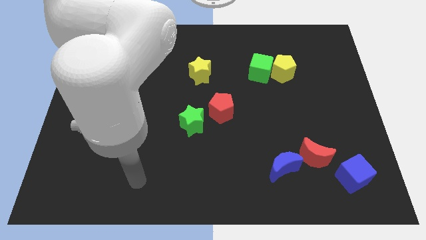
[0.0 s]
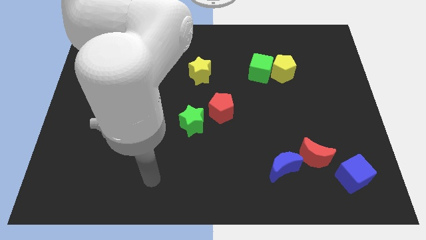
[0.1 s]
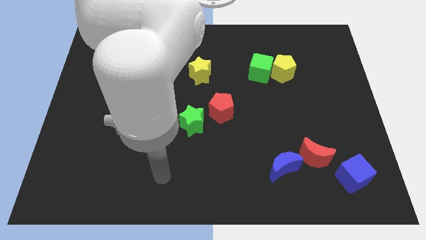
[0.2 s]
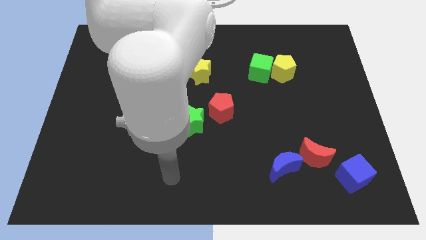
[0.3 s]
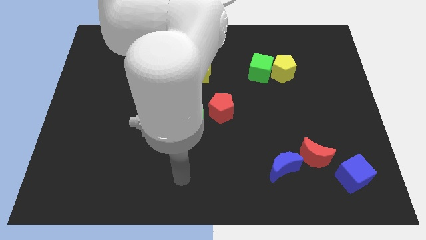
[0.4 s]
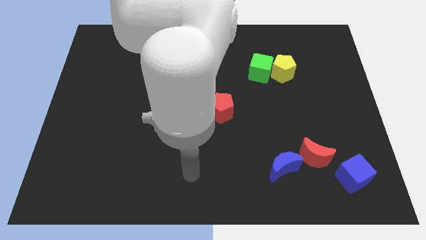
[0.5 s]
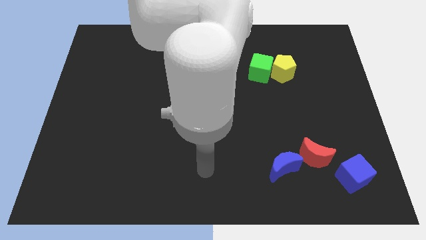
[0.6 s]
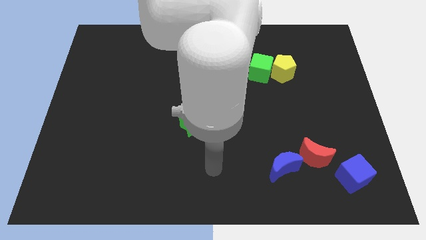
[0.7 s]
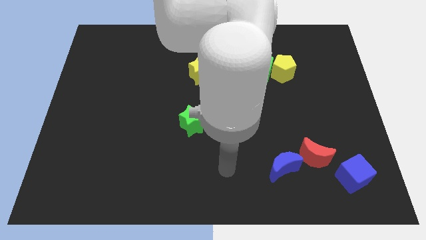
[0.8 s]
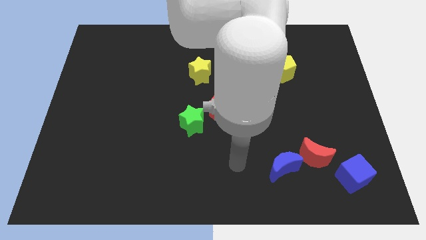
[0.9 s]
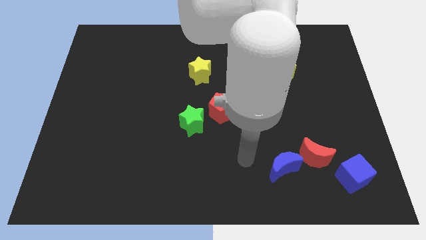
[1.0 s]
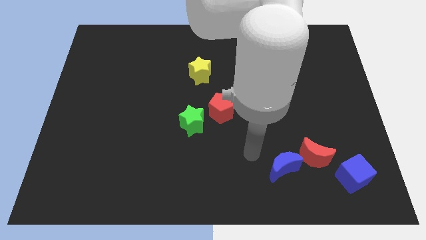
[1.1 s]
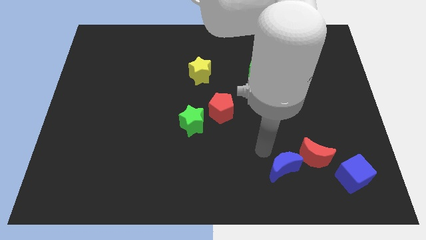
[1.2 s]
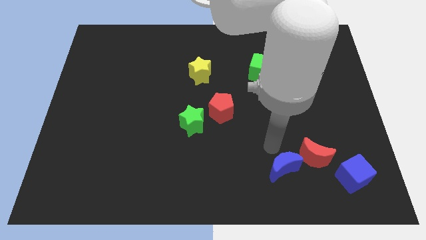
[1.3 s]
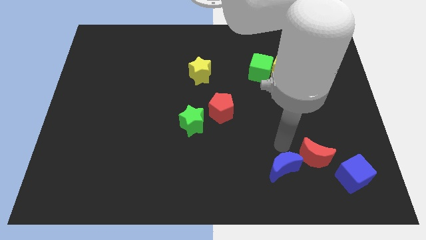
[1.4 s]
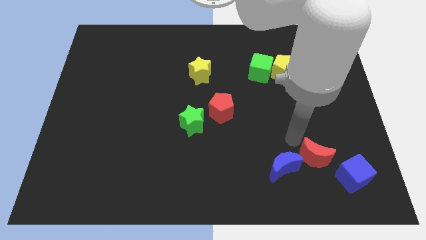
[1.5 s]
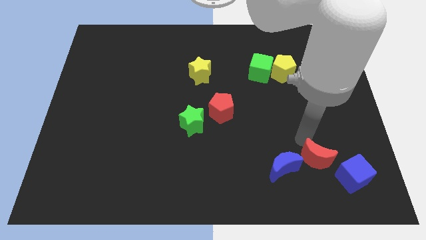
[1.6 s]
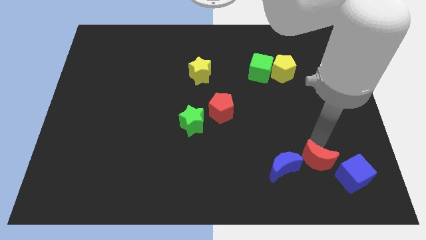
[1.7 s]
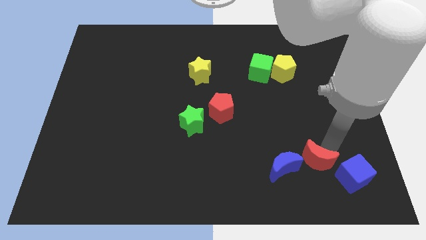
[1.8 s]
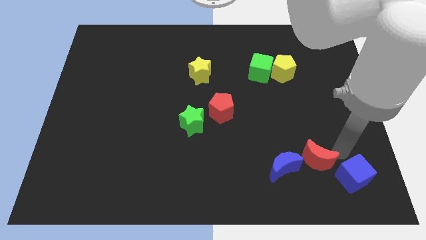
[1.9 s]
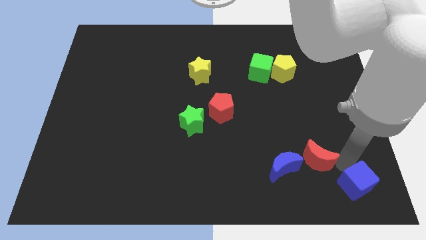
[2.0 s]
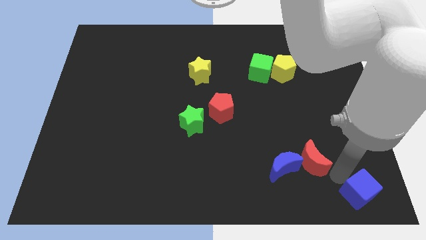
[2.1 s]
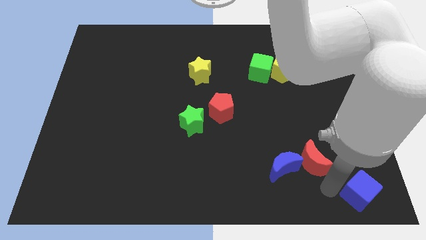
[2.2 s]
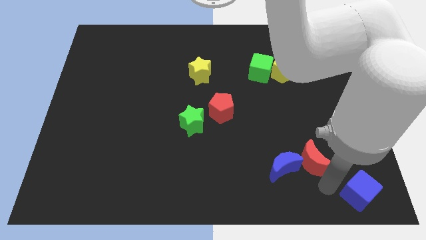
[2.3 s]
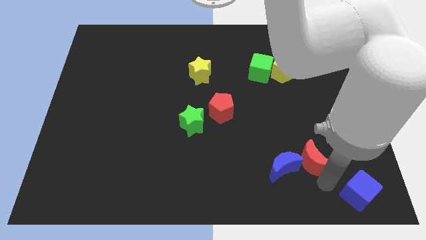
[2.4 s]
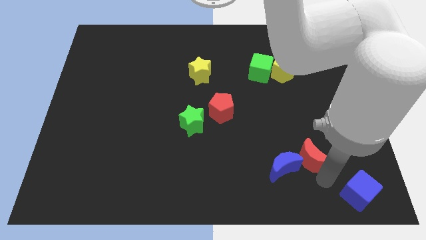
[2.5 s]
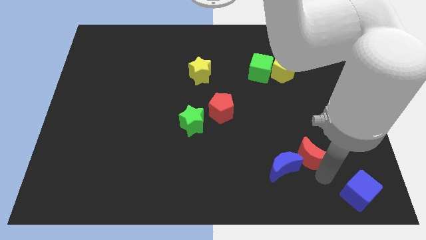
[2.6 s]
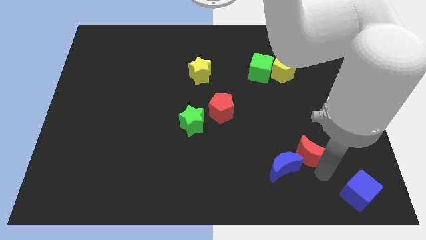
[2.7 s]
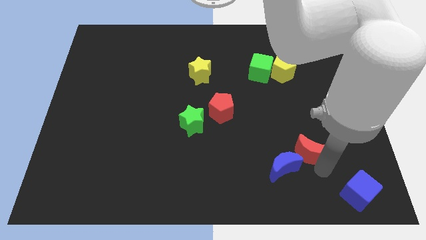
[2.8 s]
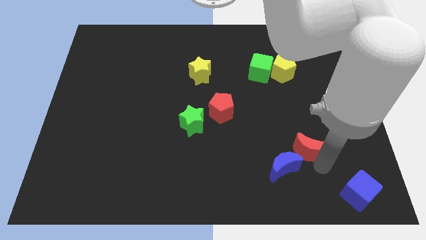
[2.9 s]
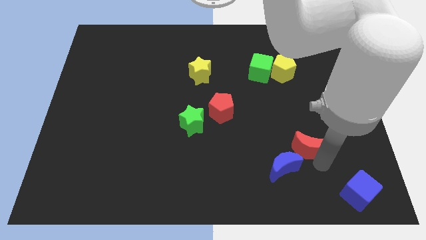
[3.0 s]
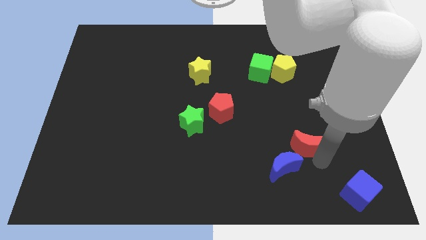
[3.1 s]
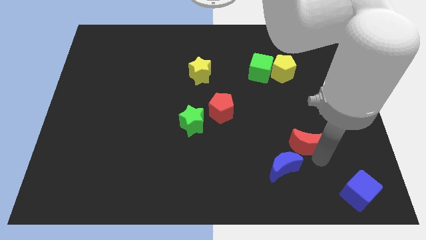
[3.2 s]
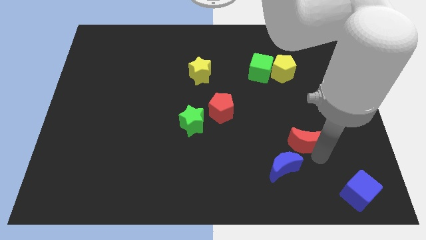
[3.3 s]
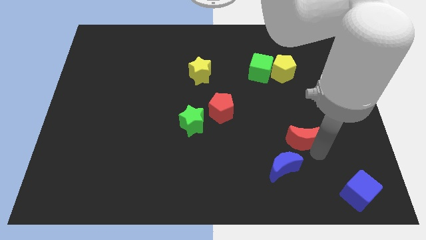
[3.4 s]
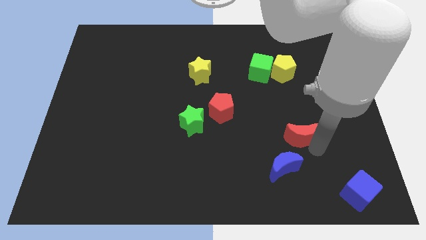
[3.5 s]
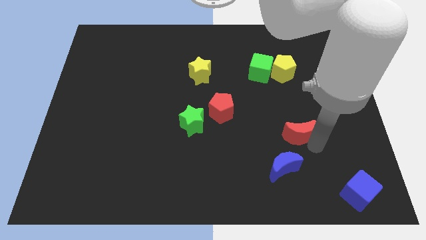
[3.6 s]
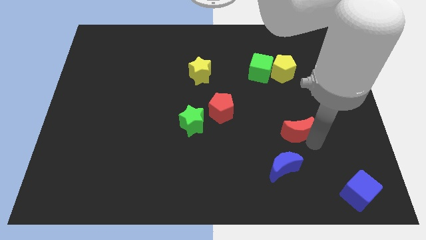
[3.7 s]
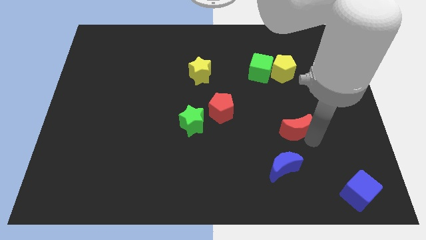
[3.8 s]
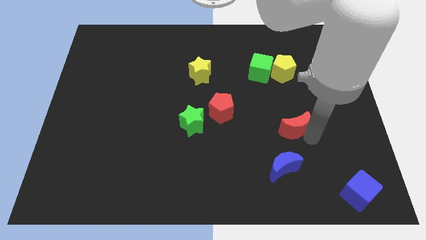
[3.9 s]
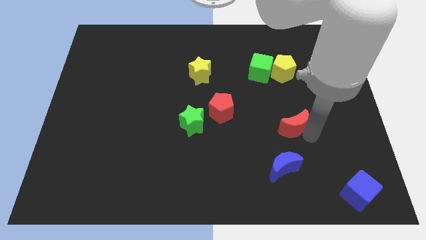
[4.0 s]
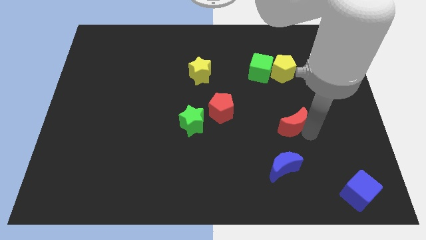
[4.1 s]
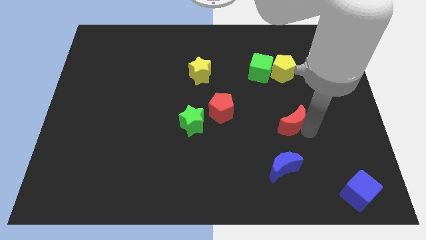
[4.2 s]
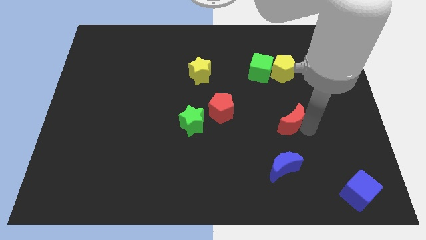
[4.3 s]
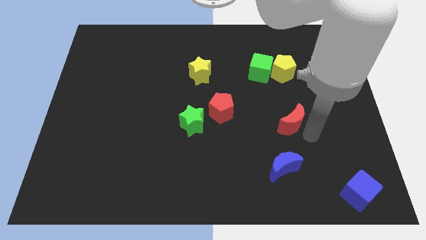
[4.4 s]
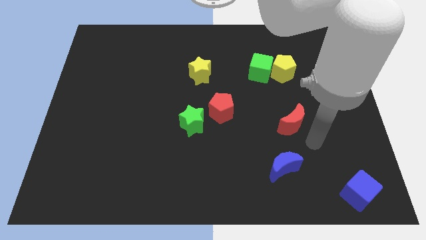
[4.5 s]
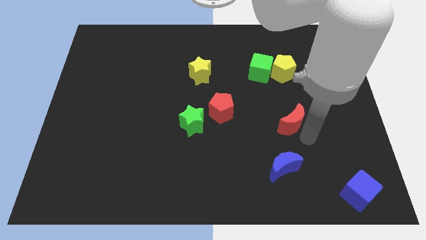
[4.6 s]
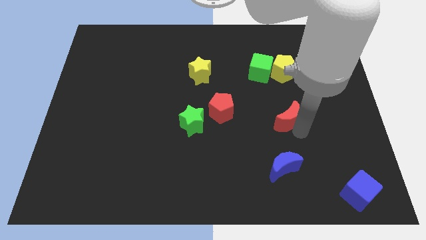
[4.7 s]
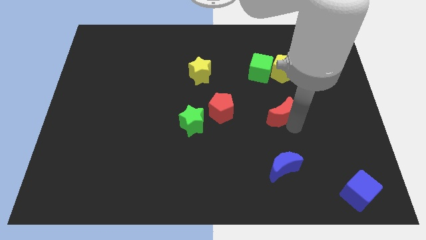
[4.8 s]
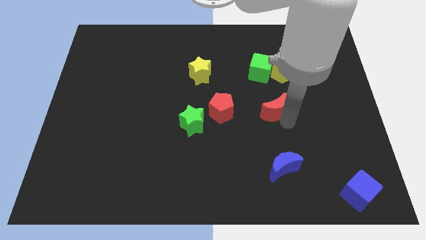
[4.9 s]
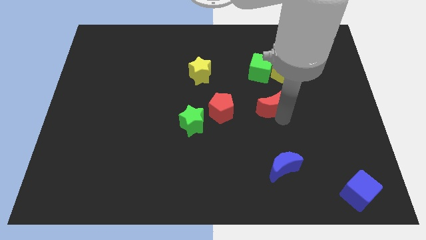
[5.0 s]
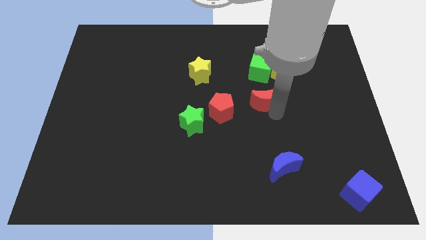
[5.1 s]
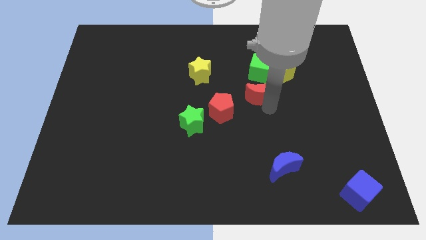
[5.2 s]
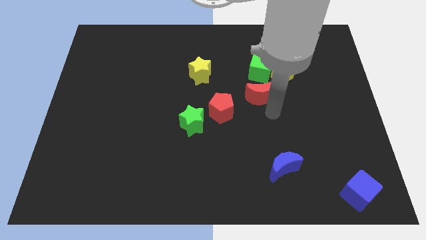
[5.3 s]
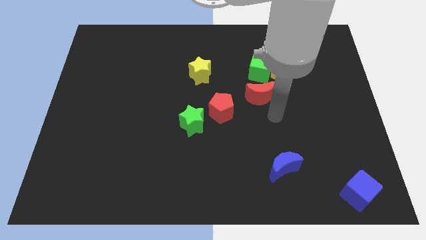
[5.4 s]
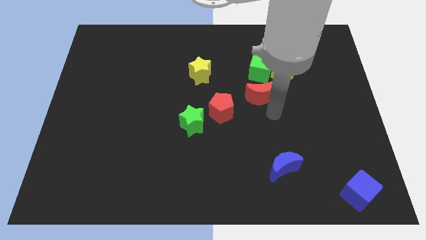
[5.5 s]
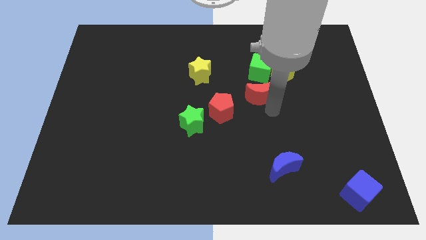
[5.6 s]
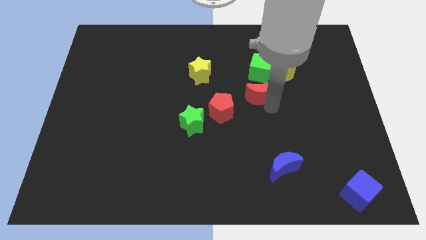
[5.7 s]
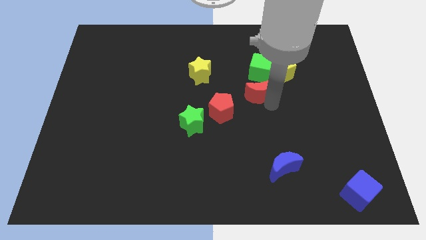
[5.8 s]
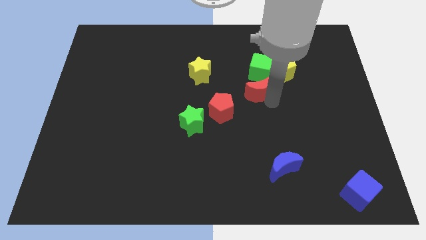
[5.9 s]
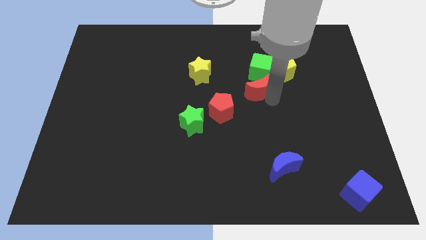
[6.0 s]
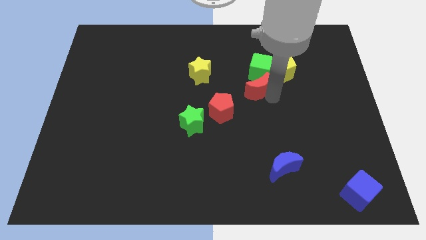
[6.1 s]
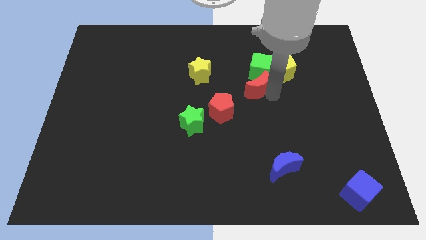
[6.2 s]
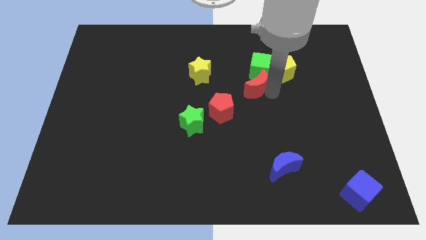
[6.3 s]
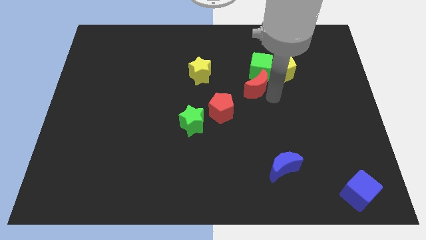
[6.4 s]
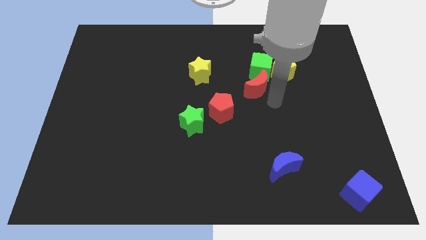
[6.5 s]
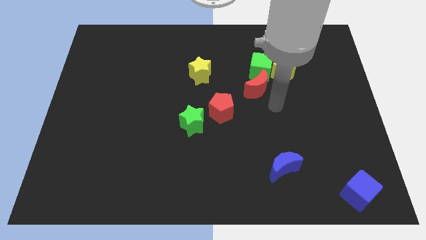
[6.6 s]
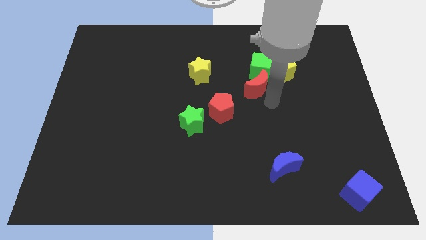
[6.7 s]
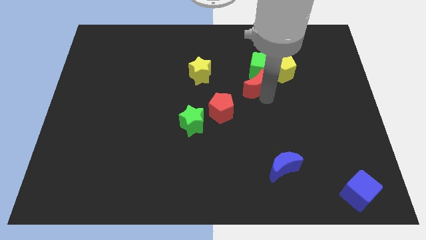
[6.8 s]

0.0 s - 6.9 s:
slide the red moon to the right side of the yellow star
